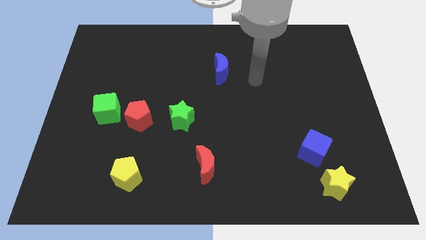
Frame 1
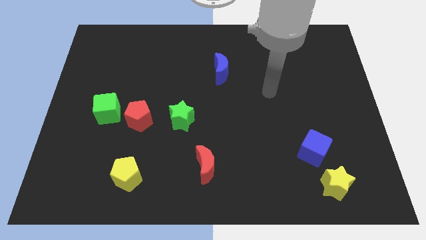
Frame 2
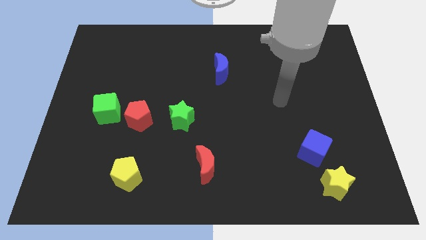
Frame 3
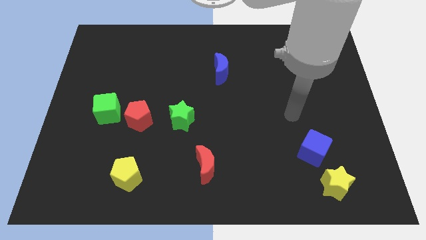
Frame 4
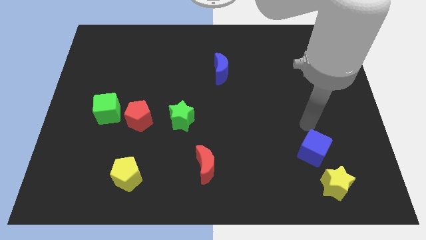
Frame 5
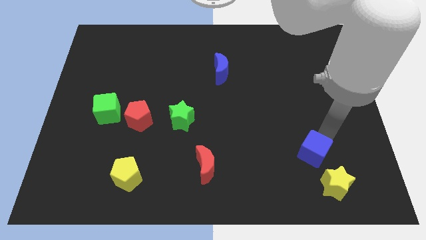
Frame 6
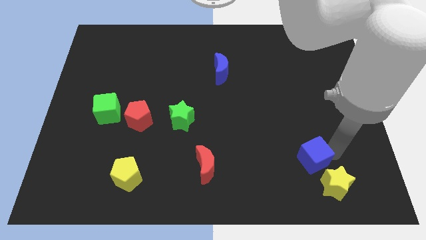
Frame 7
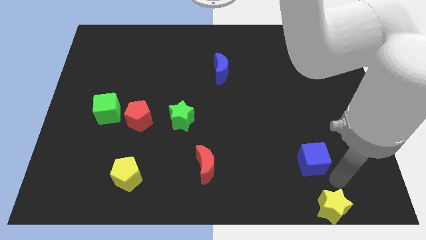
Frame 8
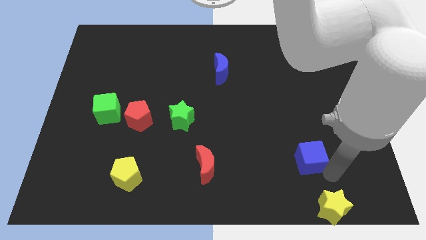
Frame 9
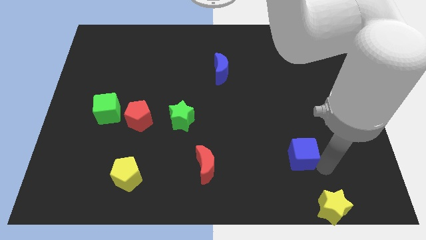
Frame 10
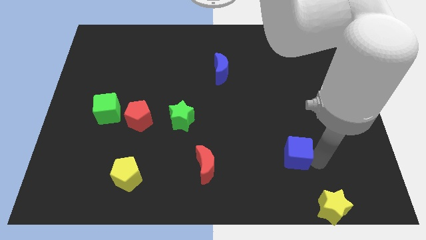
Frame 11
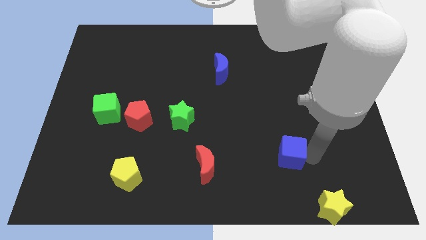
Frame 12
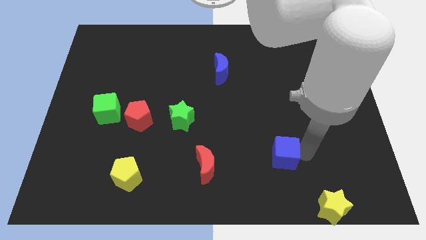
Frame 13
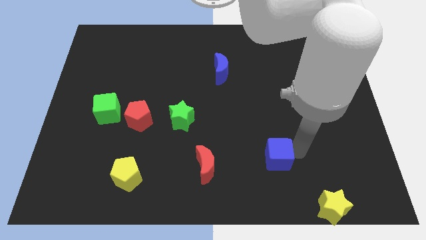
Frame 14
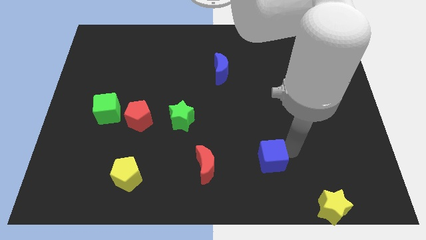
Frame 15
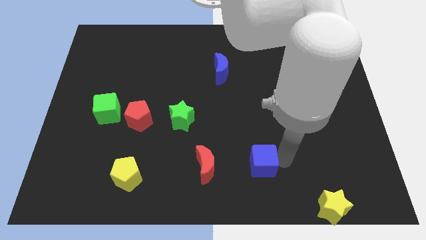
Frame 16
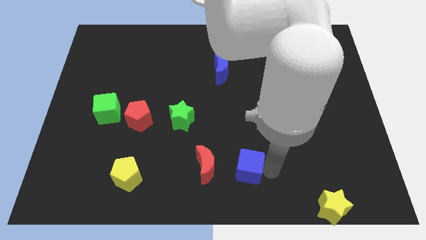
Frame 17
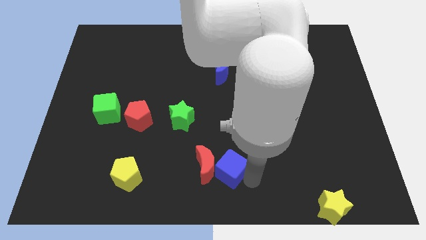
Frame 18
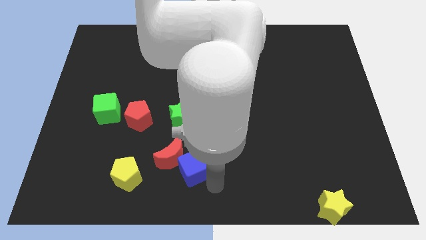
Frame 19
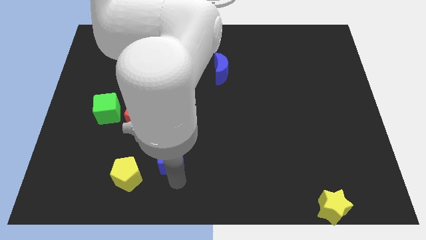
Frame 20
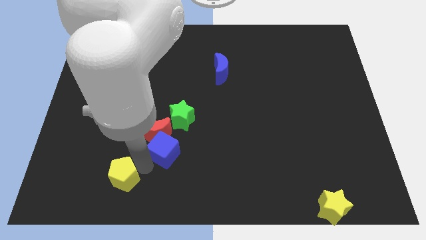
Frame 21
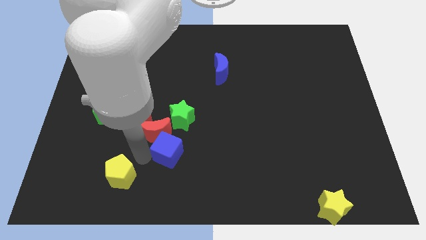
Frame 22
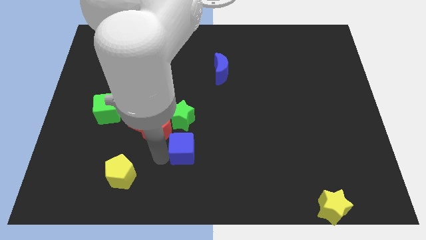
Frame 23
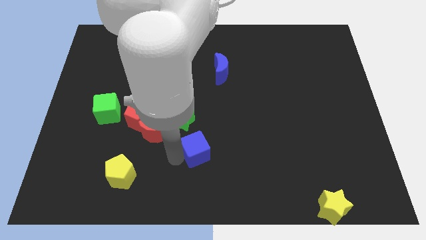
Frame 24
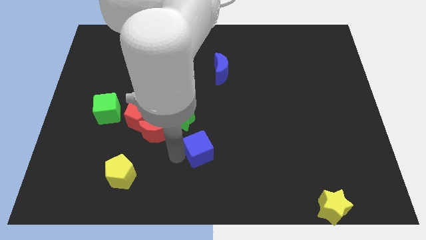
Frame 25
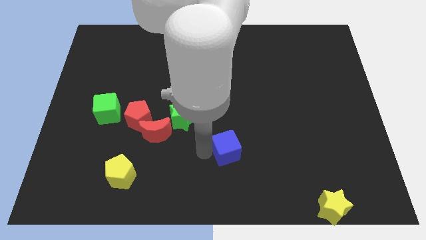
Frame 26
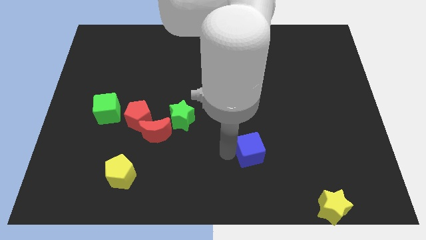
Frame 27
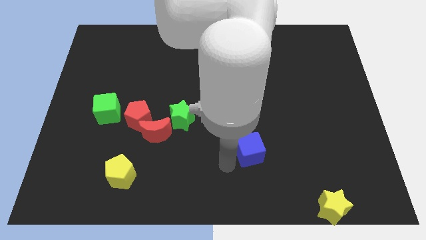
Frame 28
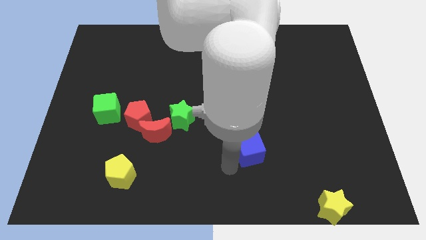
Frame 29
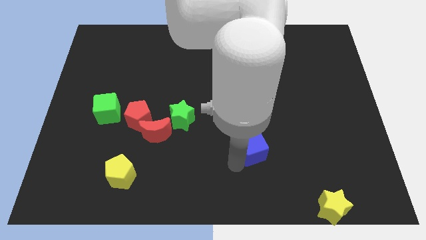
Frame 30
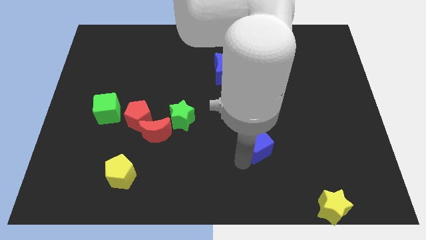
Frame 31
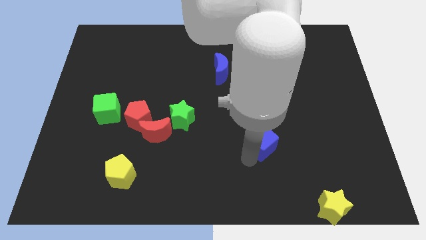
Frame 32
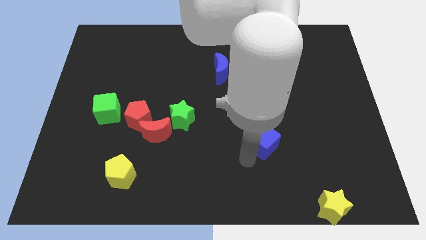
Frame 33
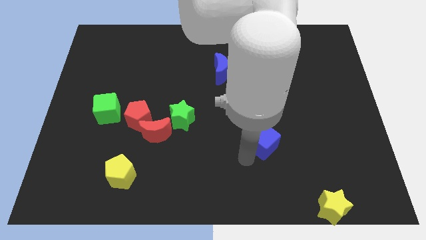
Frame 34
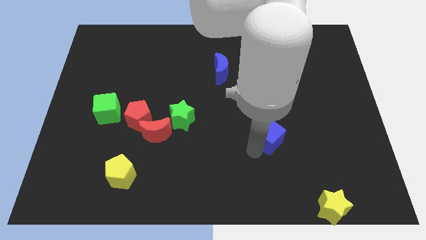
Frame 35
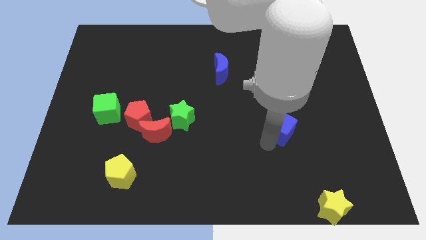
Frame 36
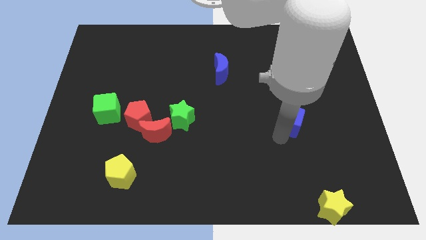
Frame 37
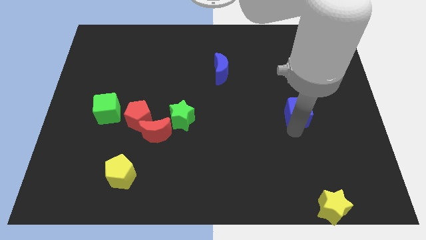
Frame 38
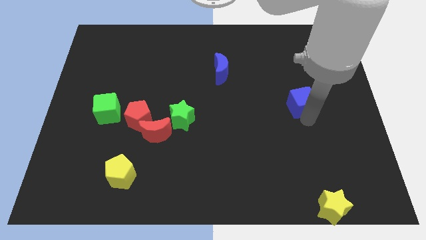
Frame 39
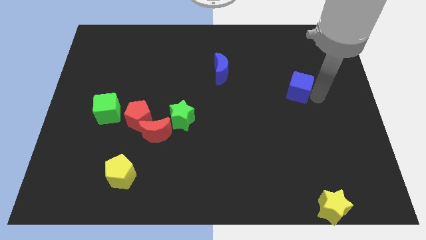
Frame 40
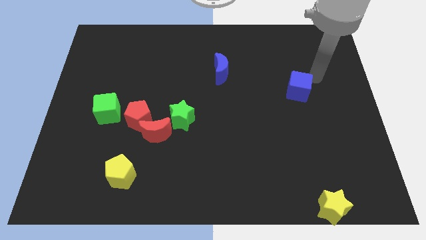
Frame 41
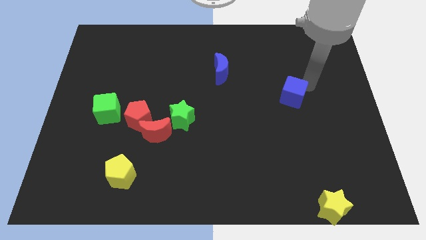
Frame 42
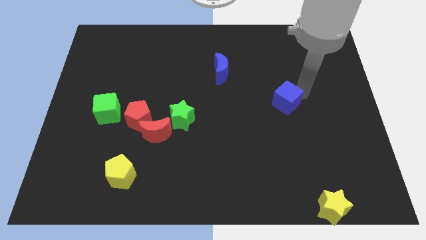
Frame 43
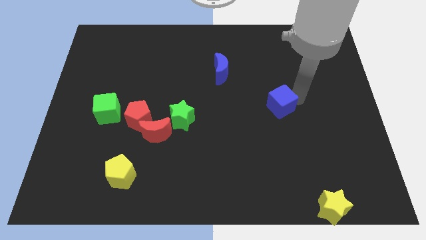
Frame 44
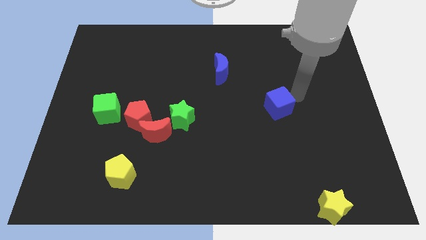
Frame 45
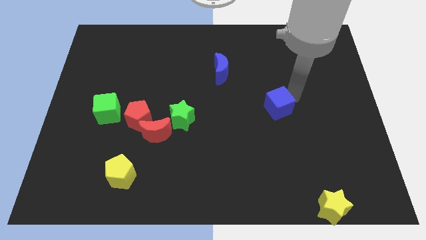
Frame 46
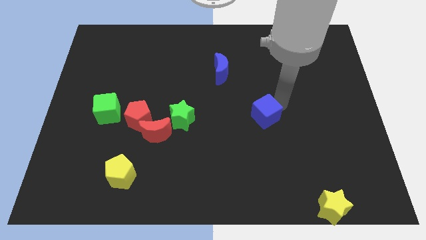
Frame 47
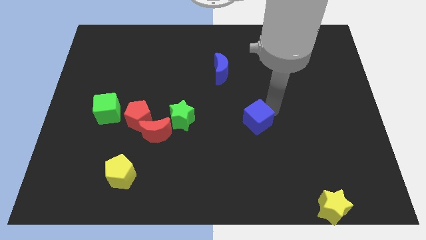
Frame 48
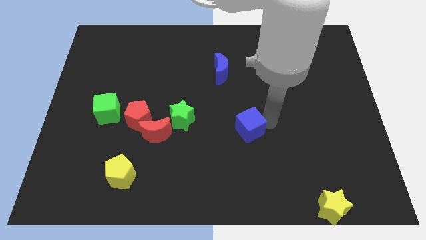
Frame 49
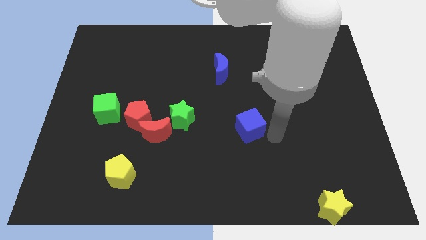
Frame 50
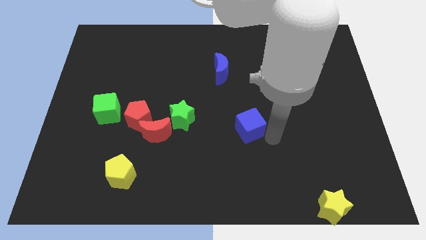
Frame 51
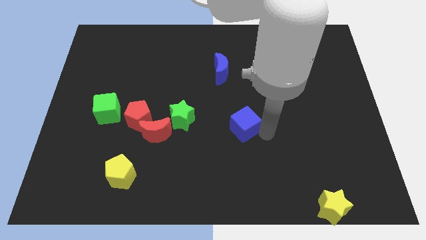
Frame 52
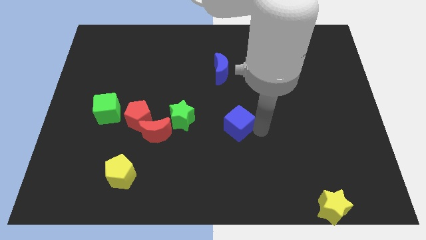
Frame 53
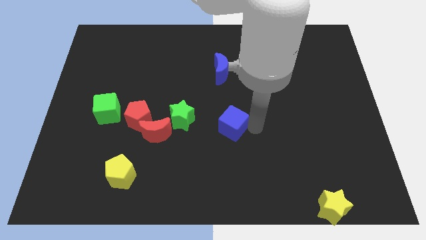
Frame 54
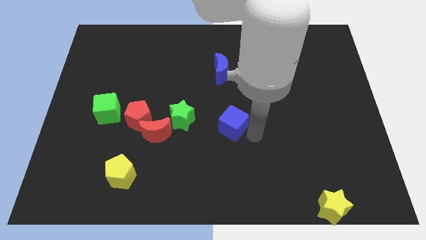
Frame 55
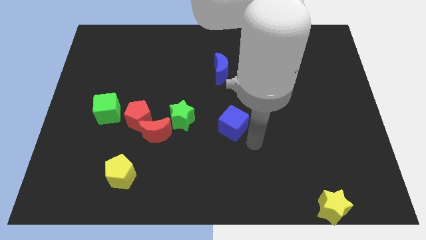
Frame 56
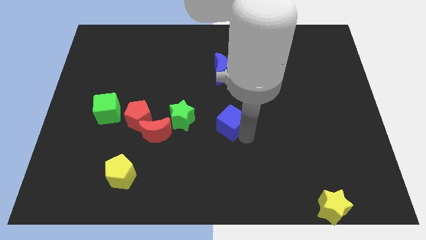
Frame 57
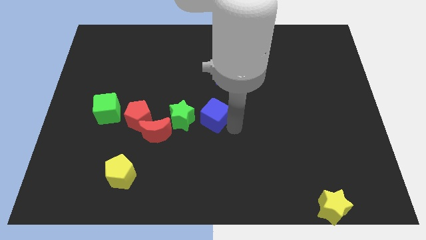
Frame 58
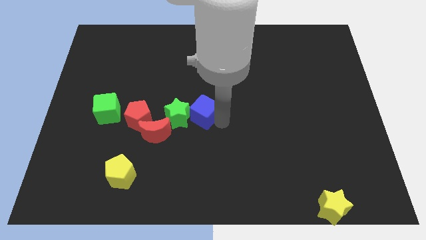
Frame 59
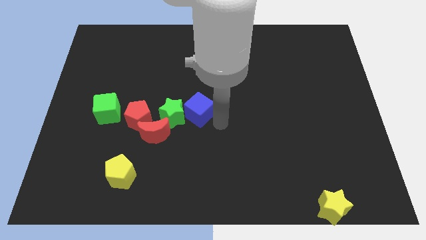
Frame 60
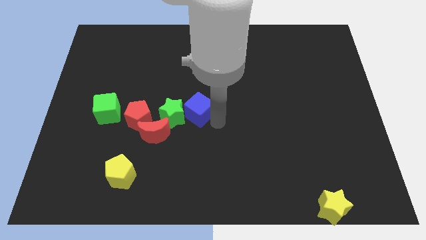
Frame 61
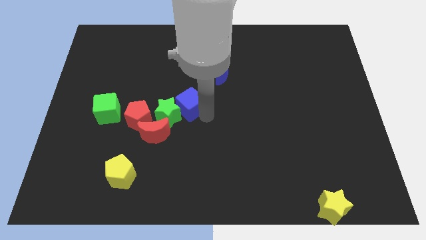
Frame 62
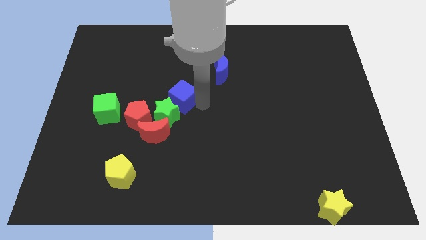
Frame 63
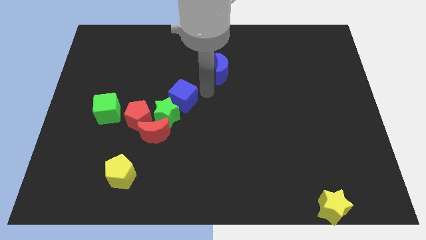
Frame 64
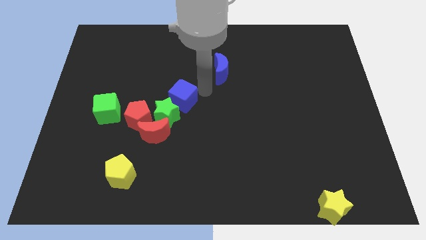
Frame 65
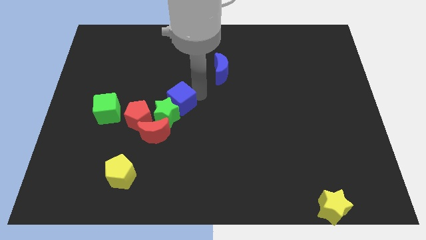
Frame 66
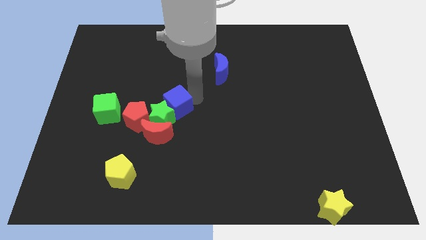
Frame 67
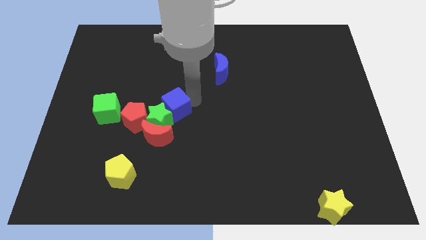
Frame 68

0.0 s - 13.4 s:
put the blue cube right of the green cube

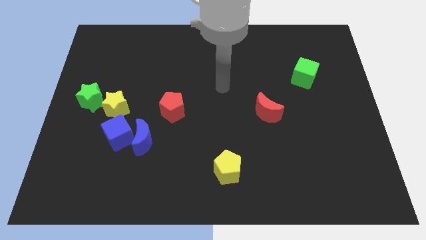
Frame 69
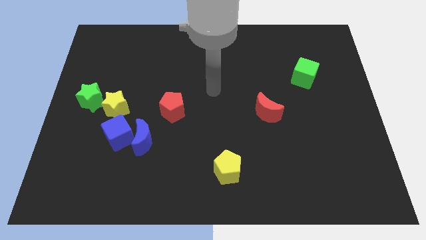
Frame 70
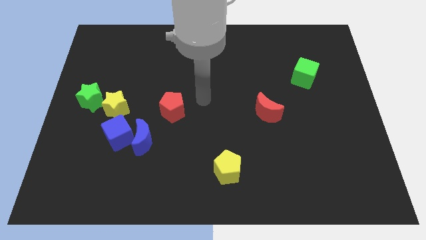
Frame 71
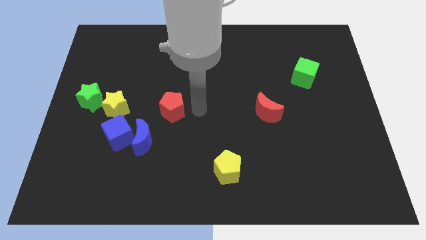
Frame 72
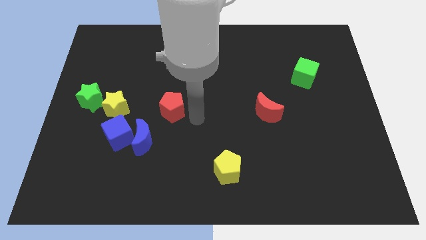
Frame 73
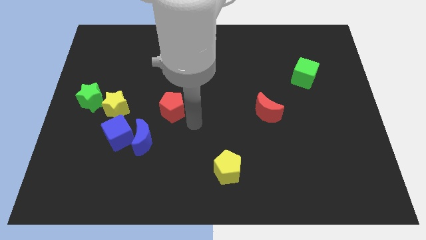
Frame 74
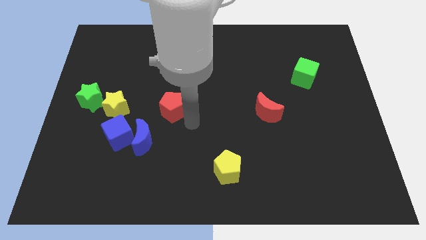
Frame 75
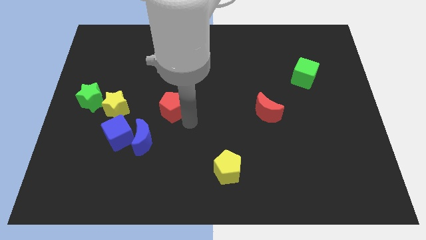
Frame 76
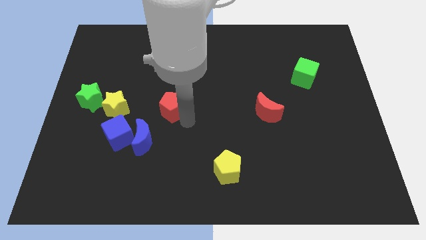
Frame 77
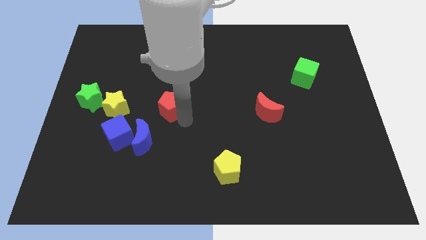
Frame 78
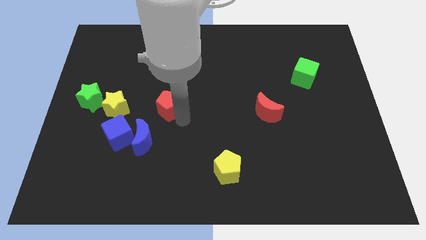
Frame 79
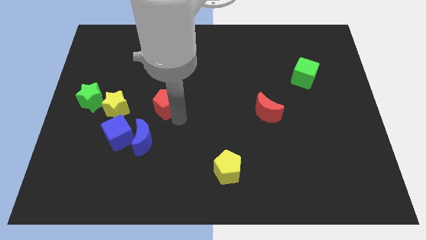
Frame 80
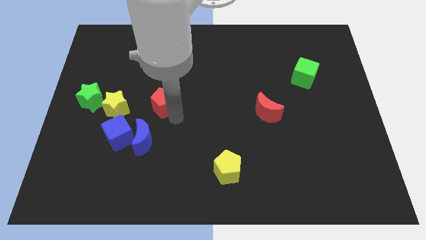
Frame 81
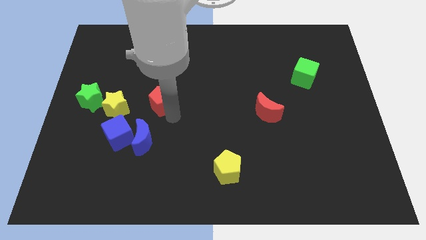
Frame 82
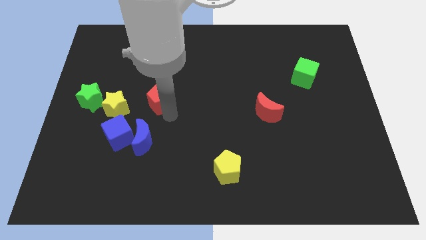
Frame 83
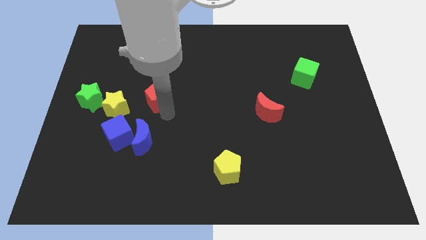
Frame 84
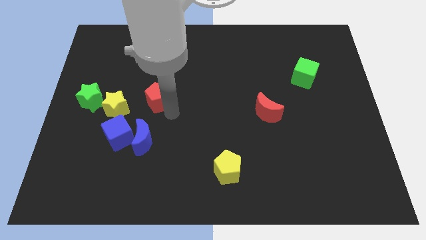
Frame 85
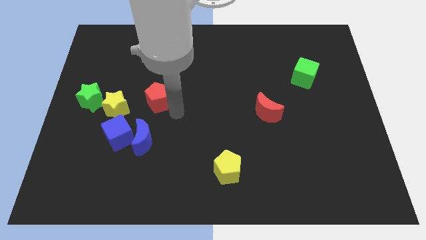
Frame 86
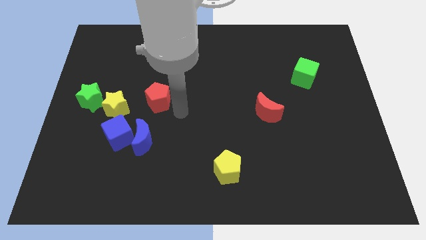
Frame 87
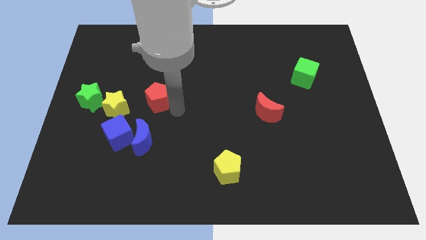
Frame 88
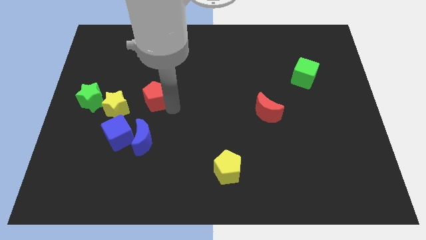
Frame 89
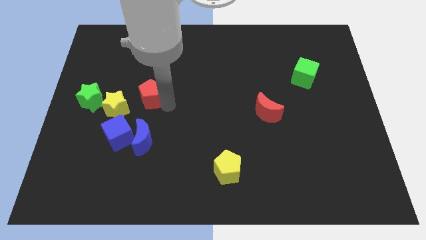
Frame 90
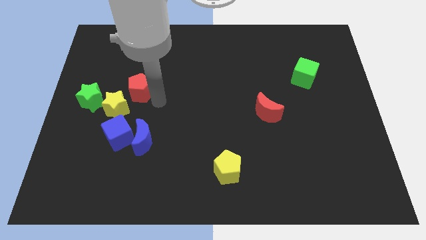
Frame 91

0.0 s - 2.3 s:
move the red pentagon to the top of the yellow star
